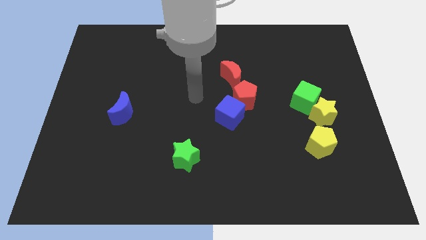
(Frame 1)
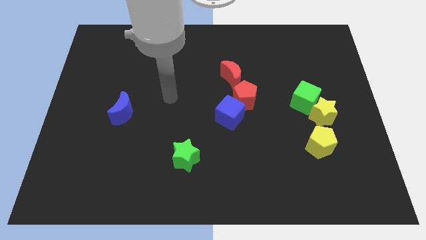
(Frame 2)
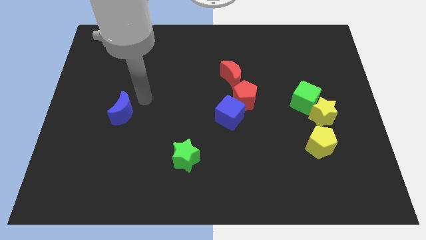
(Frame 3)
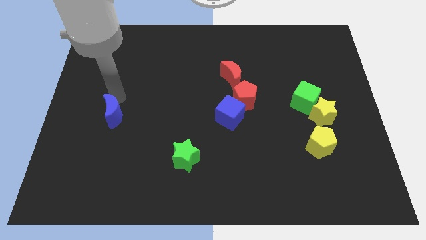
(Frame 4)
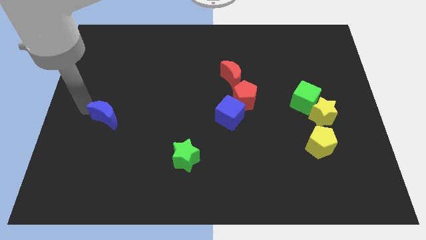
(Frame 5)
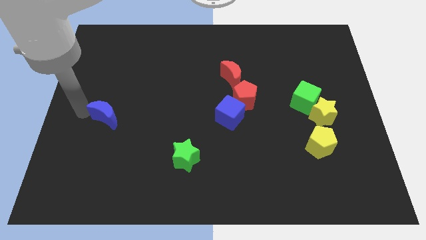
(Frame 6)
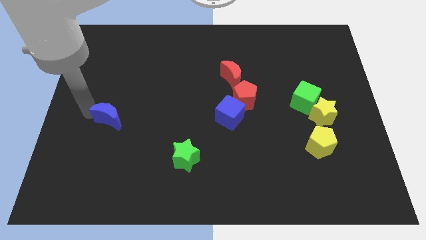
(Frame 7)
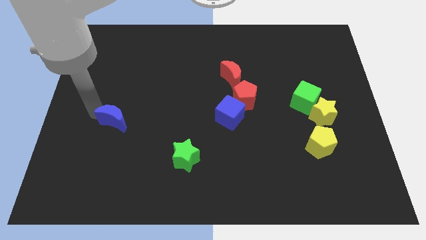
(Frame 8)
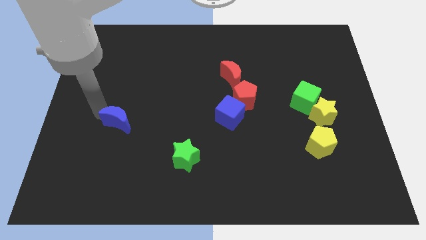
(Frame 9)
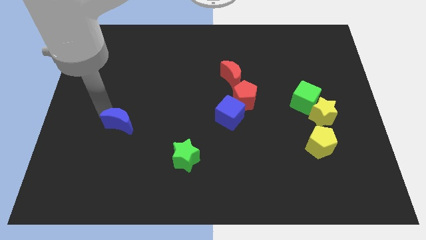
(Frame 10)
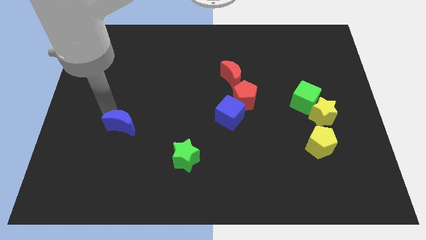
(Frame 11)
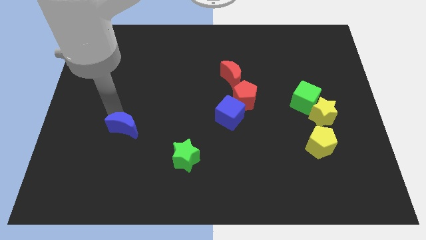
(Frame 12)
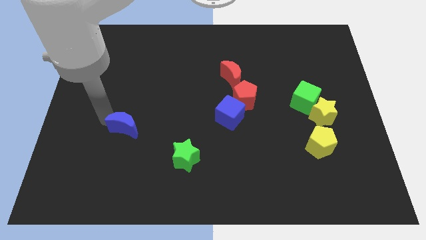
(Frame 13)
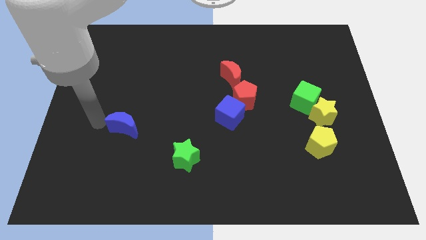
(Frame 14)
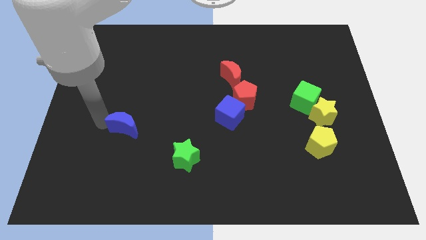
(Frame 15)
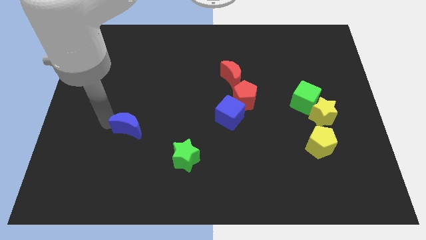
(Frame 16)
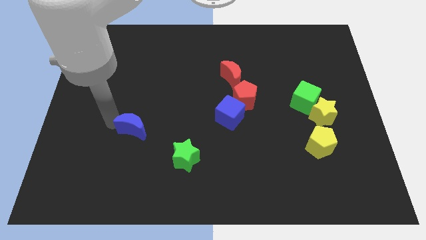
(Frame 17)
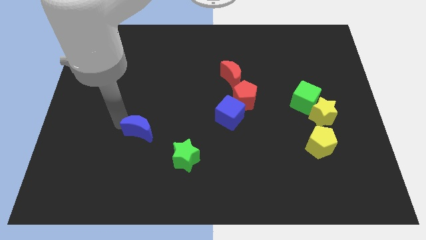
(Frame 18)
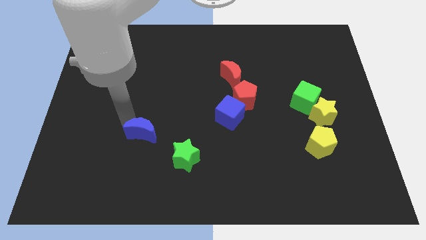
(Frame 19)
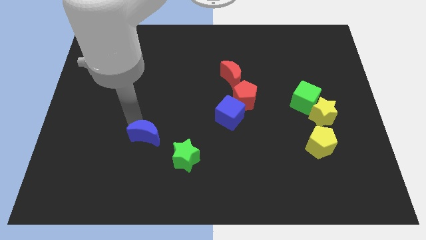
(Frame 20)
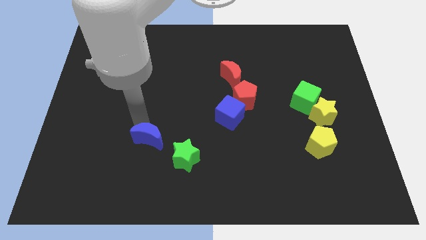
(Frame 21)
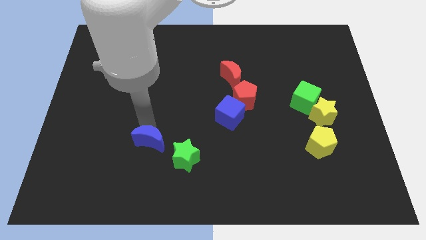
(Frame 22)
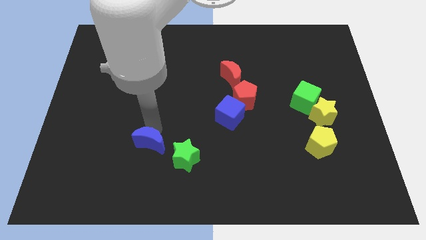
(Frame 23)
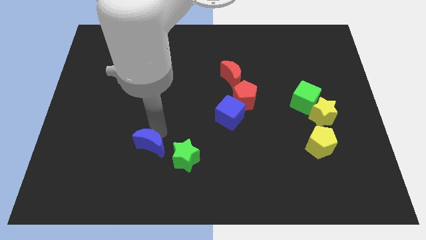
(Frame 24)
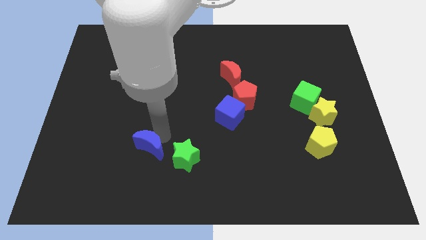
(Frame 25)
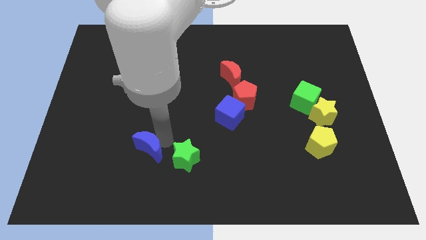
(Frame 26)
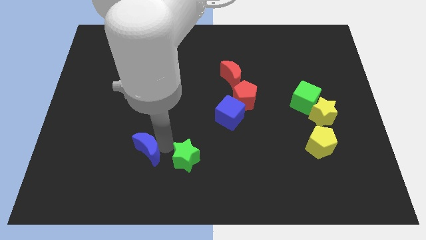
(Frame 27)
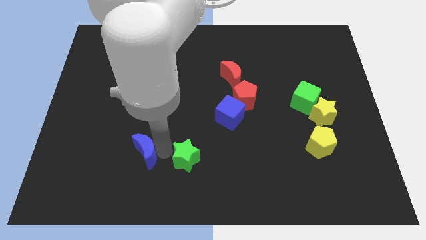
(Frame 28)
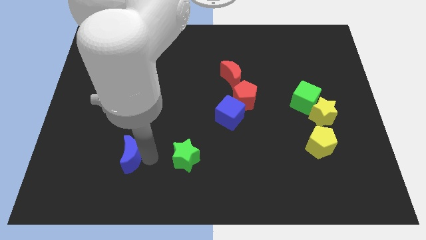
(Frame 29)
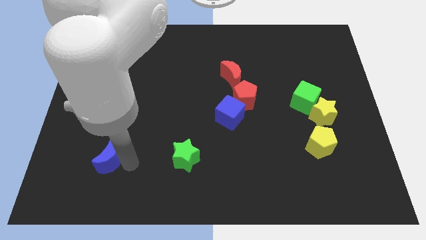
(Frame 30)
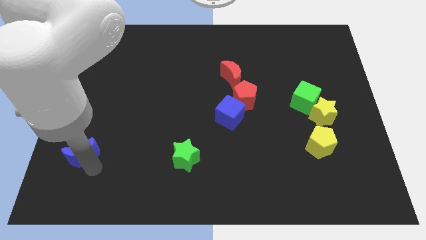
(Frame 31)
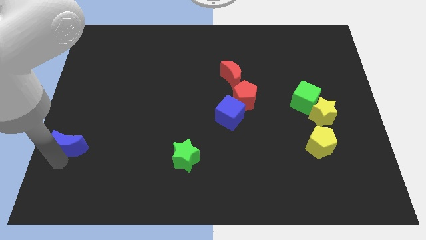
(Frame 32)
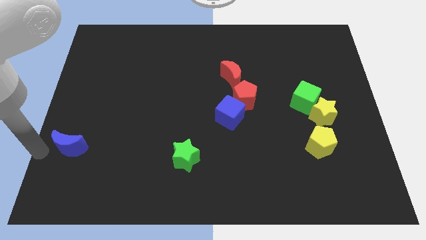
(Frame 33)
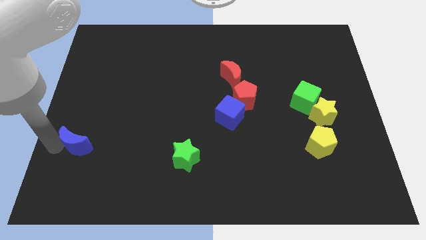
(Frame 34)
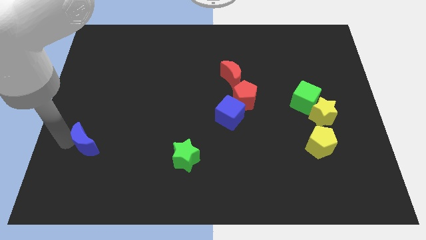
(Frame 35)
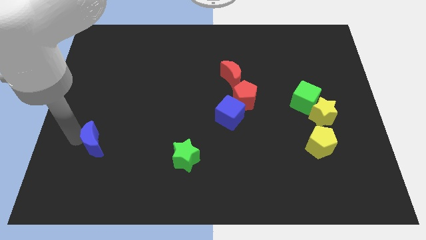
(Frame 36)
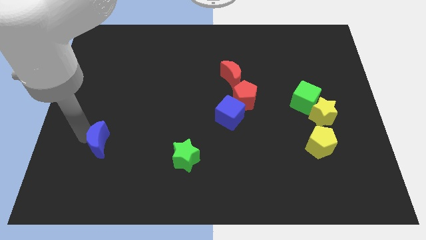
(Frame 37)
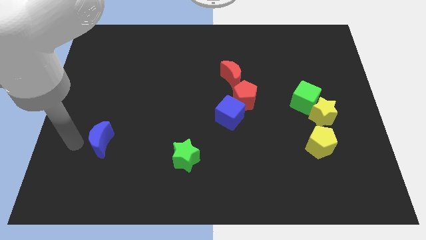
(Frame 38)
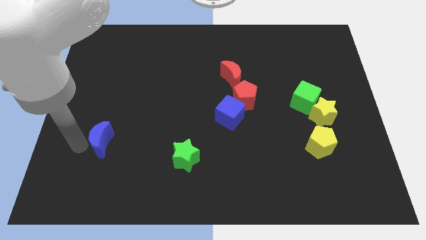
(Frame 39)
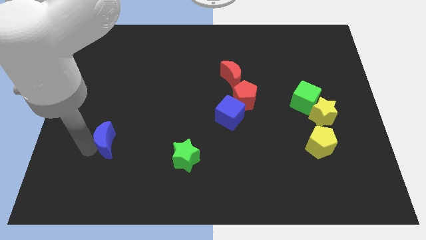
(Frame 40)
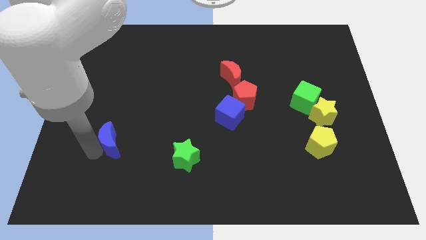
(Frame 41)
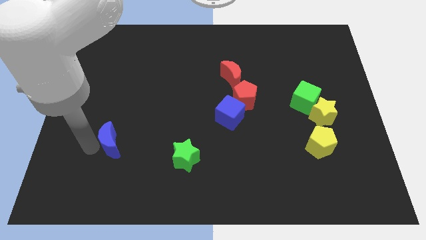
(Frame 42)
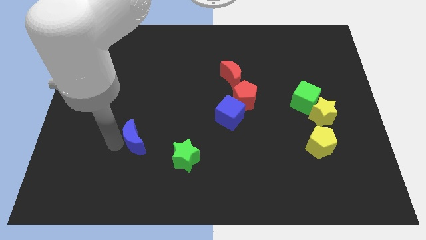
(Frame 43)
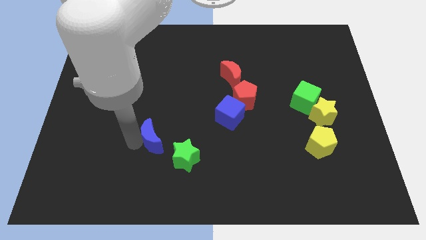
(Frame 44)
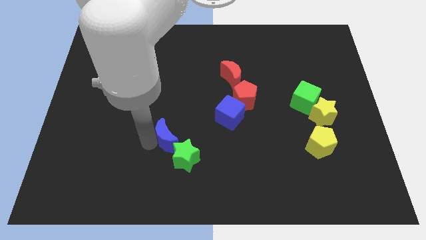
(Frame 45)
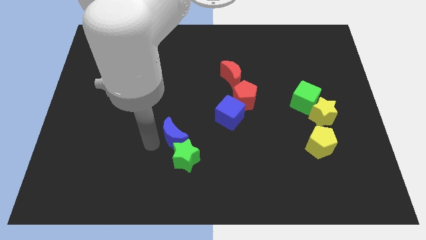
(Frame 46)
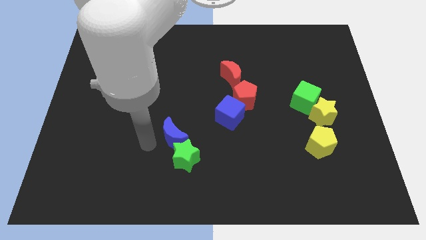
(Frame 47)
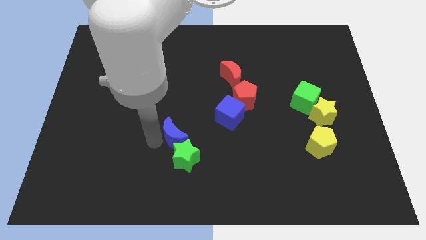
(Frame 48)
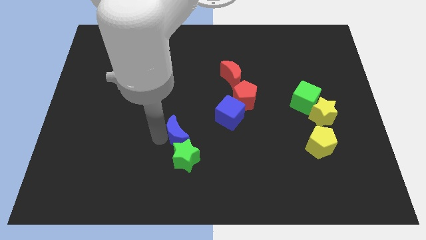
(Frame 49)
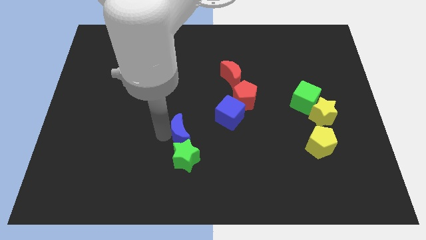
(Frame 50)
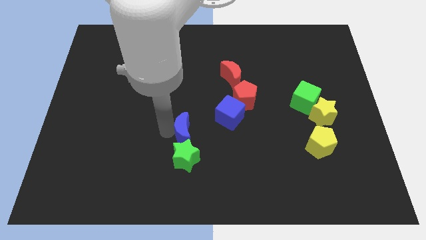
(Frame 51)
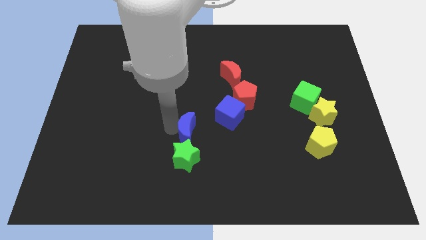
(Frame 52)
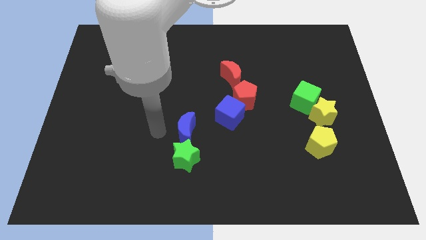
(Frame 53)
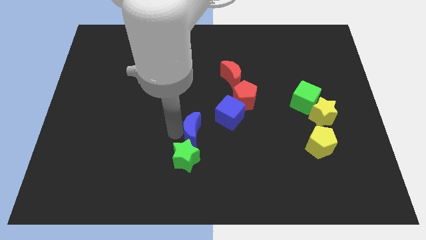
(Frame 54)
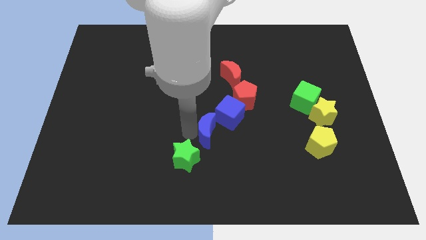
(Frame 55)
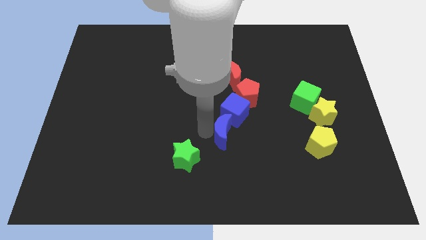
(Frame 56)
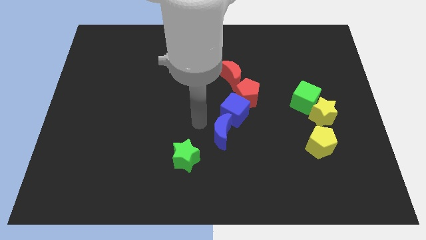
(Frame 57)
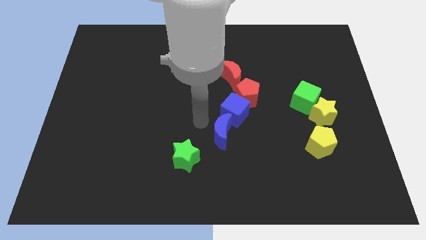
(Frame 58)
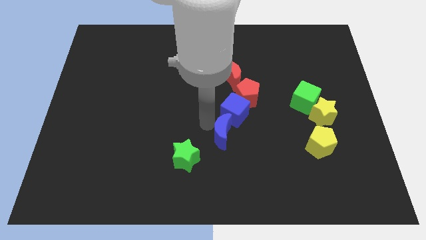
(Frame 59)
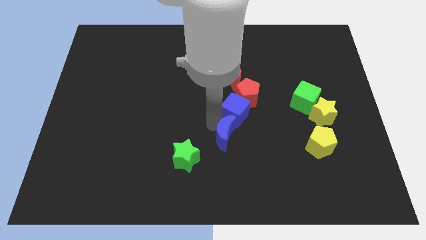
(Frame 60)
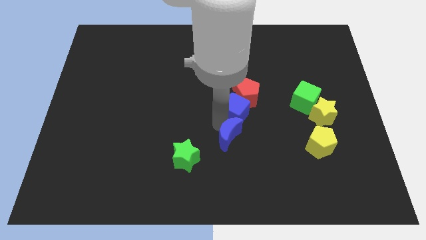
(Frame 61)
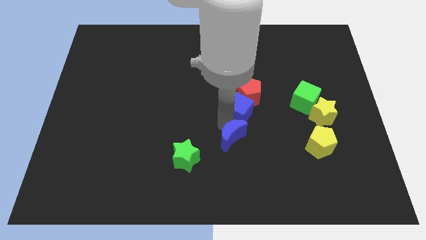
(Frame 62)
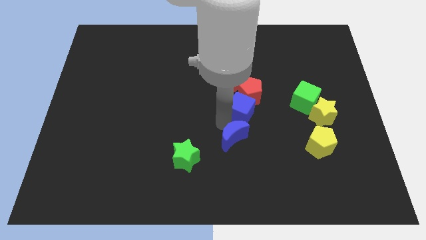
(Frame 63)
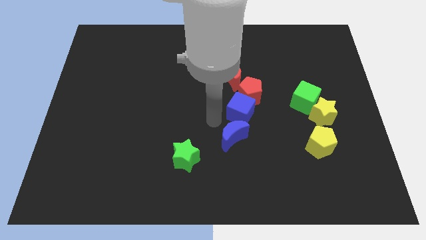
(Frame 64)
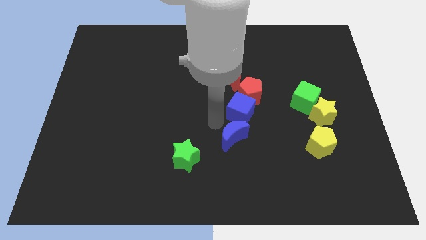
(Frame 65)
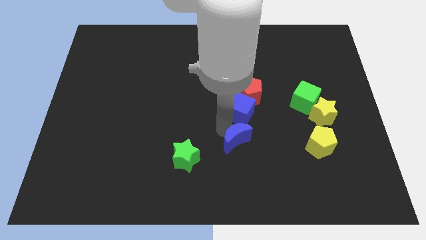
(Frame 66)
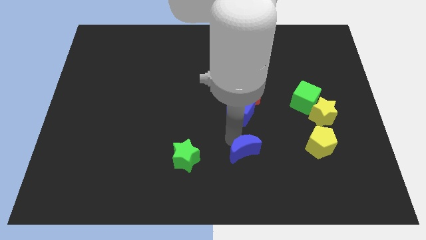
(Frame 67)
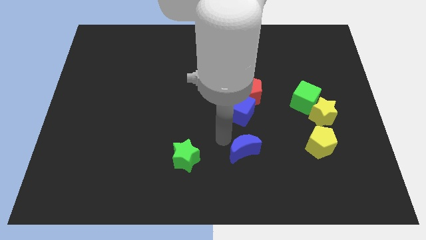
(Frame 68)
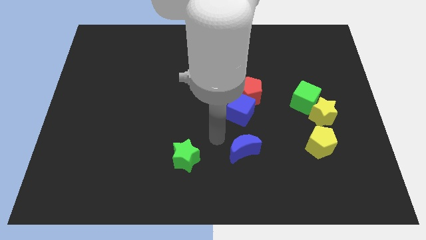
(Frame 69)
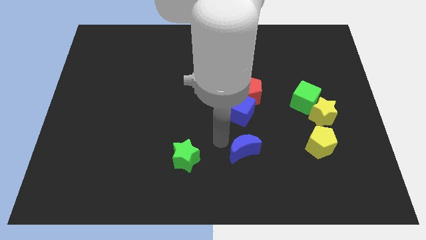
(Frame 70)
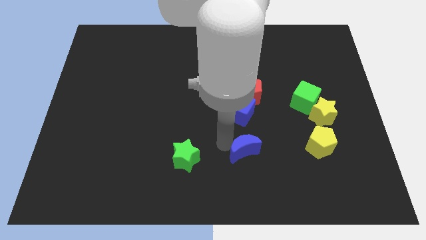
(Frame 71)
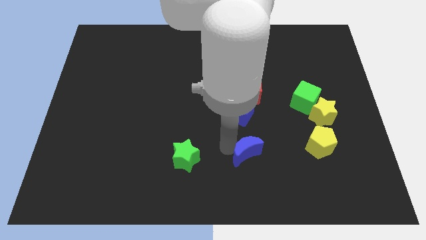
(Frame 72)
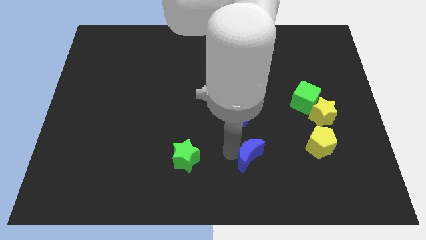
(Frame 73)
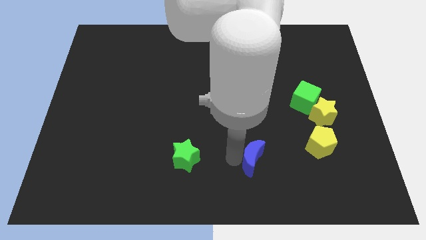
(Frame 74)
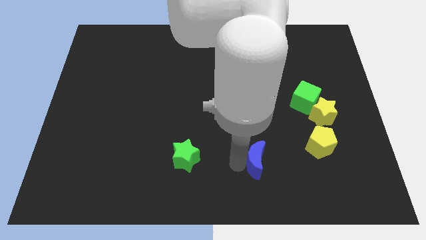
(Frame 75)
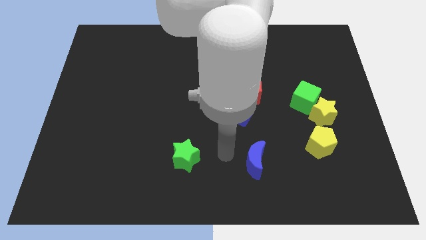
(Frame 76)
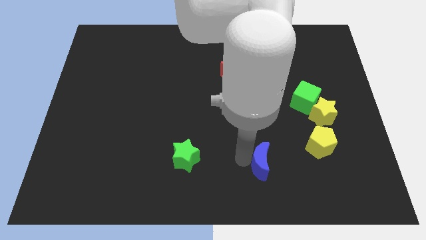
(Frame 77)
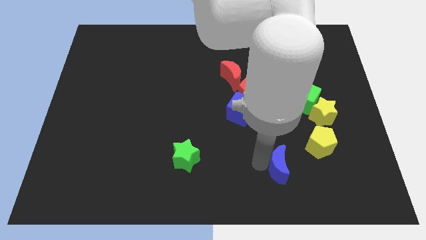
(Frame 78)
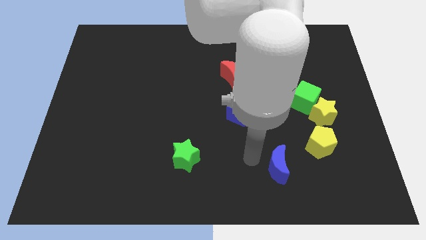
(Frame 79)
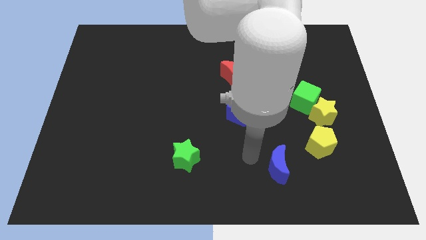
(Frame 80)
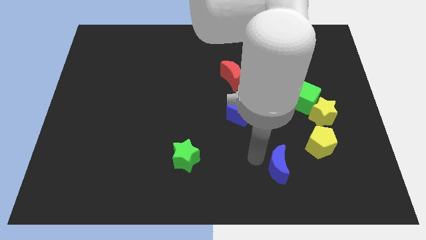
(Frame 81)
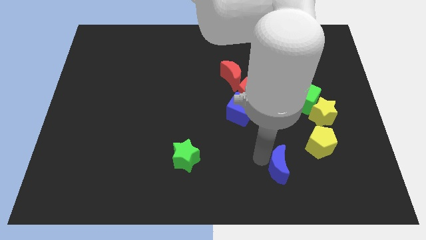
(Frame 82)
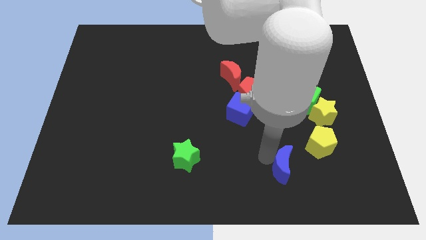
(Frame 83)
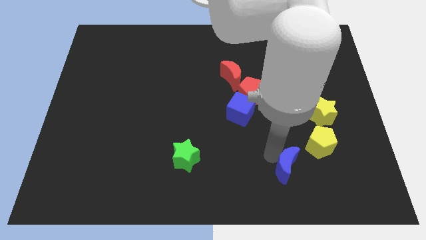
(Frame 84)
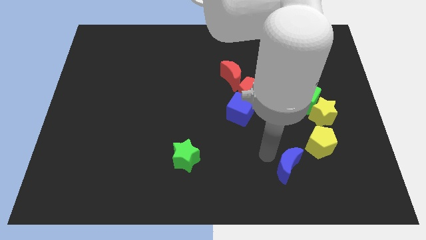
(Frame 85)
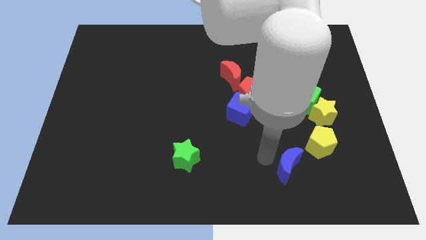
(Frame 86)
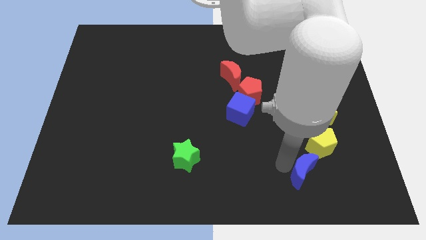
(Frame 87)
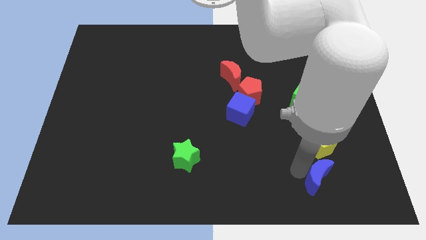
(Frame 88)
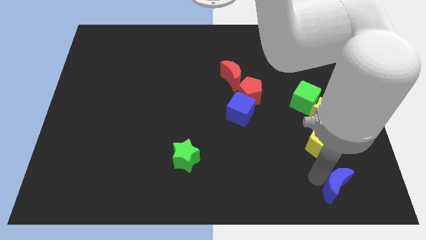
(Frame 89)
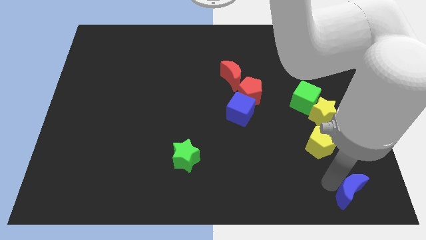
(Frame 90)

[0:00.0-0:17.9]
push the blue moon to the bottom right of the board
